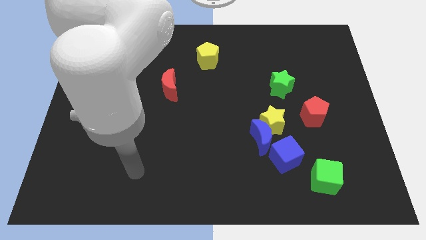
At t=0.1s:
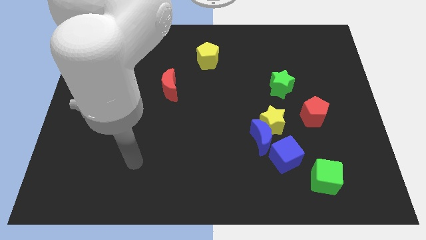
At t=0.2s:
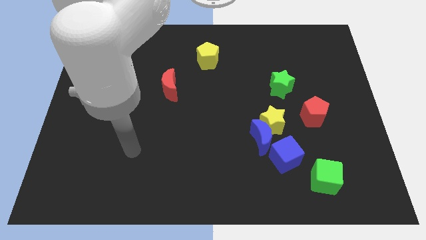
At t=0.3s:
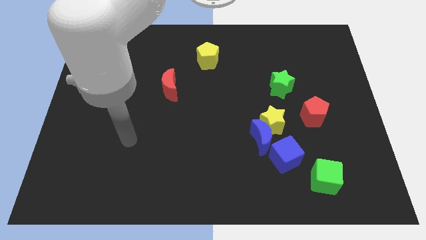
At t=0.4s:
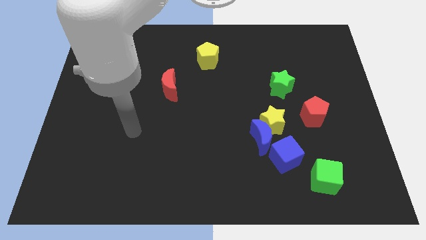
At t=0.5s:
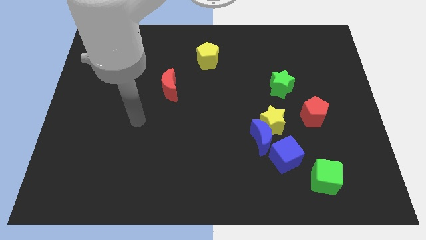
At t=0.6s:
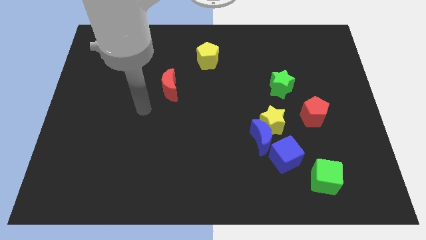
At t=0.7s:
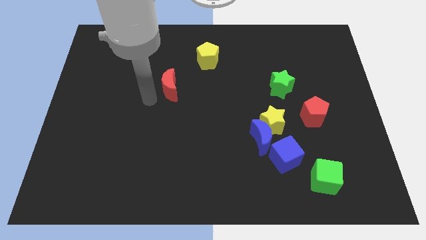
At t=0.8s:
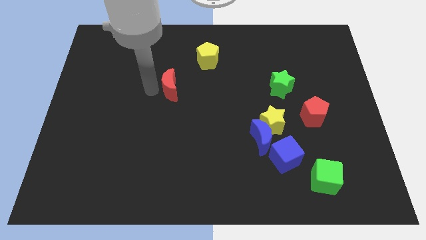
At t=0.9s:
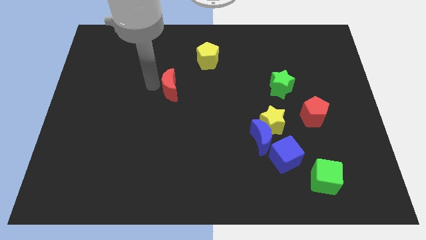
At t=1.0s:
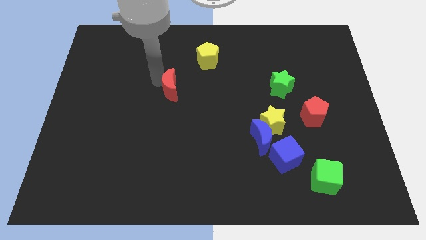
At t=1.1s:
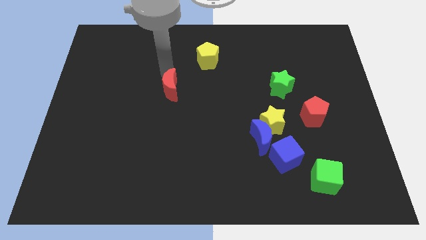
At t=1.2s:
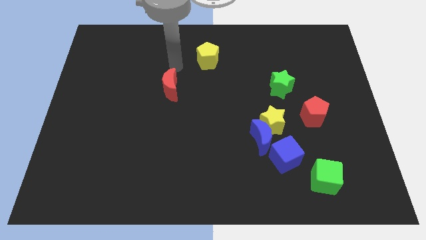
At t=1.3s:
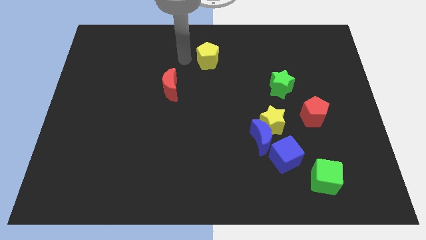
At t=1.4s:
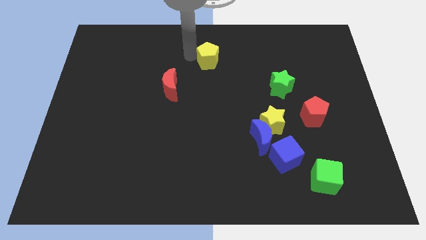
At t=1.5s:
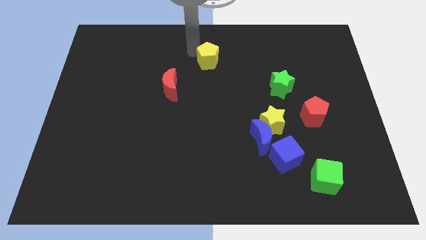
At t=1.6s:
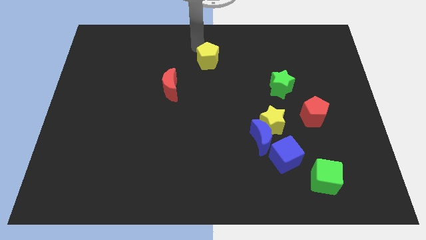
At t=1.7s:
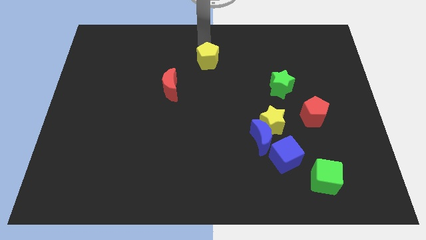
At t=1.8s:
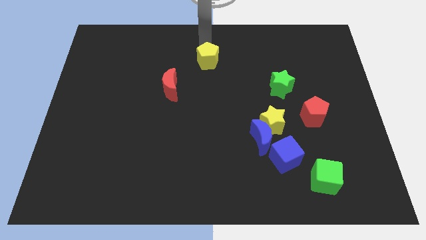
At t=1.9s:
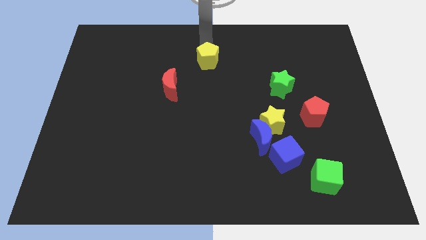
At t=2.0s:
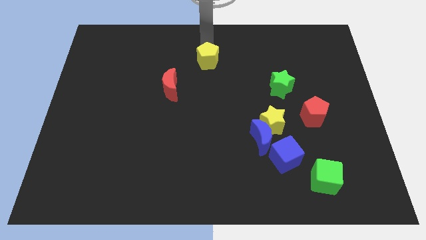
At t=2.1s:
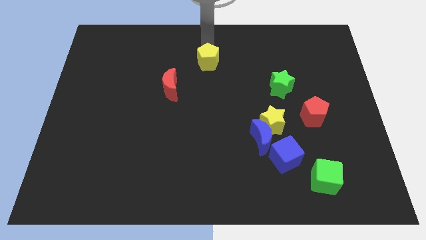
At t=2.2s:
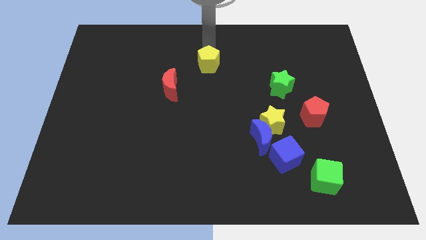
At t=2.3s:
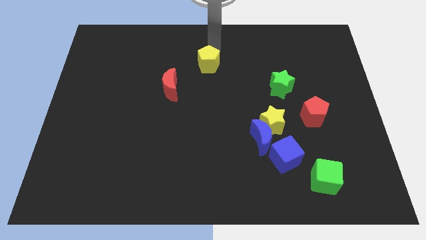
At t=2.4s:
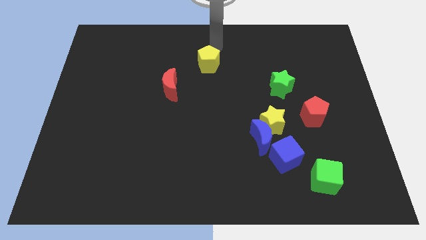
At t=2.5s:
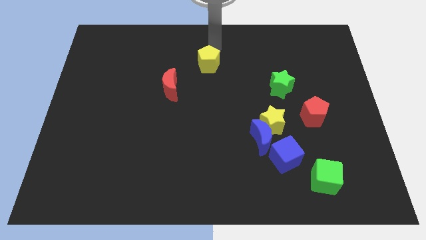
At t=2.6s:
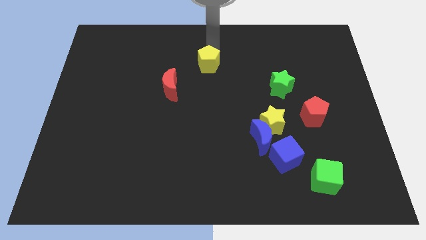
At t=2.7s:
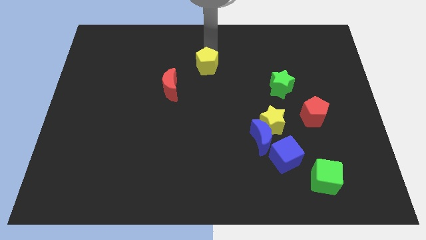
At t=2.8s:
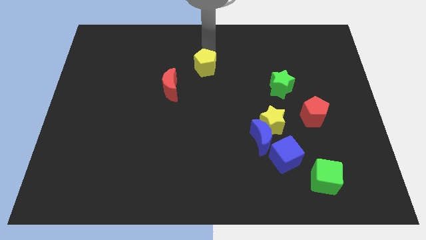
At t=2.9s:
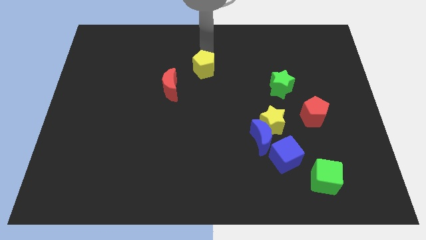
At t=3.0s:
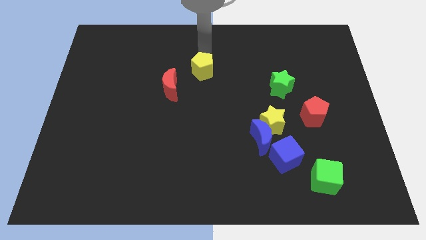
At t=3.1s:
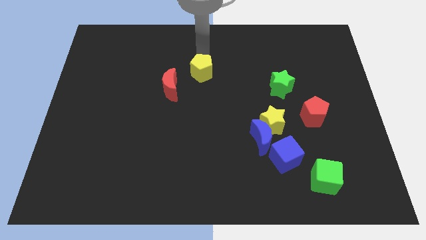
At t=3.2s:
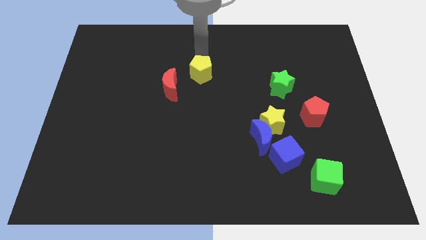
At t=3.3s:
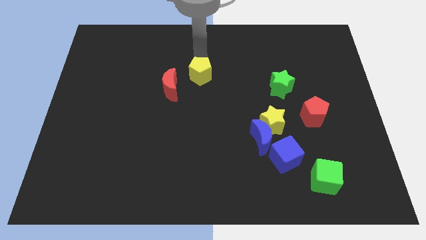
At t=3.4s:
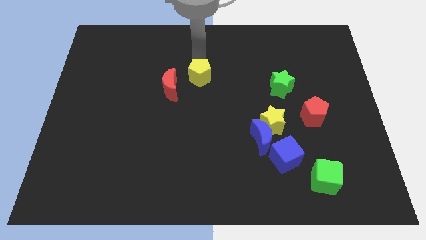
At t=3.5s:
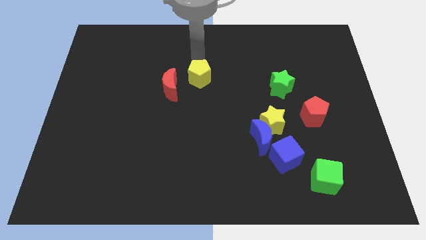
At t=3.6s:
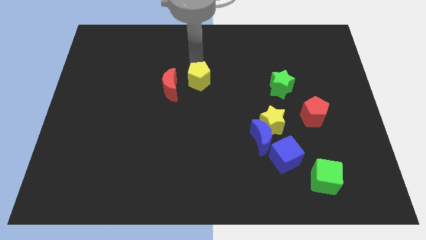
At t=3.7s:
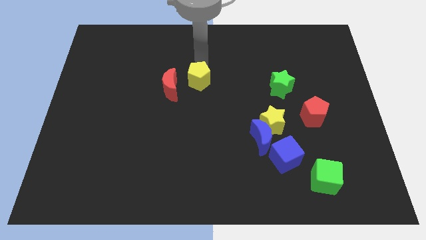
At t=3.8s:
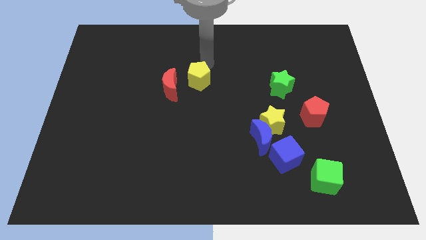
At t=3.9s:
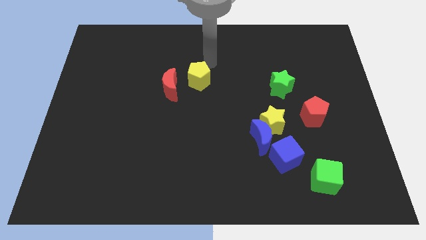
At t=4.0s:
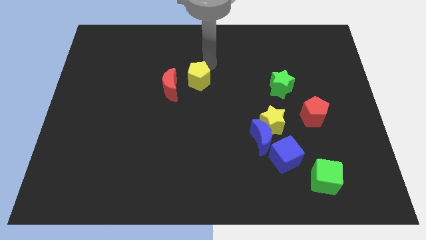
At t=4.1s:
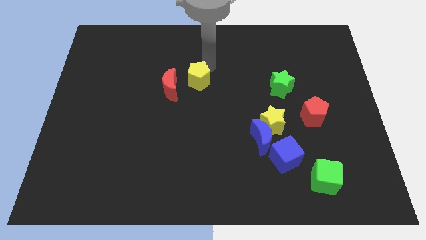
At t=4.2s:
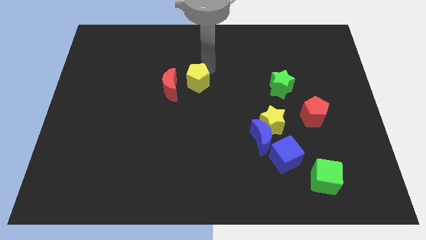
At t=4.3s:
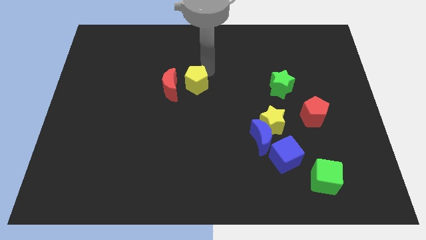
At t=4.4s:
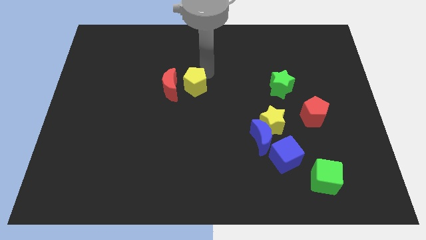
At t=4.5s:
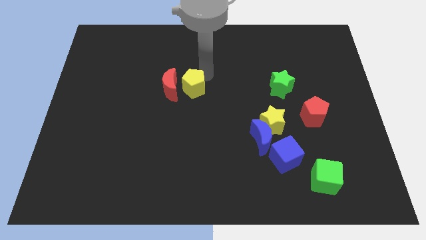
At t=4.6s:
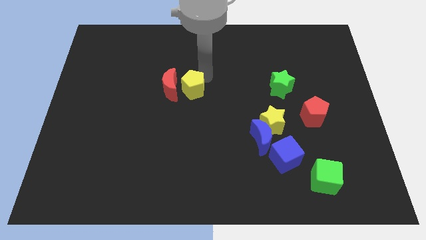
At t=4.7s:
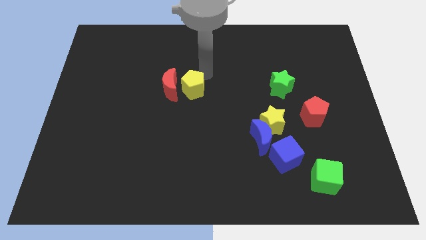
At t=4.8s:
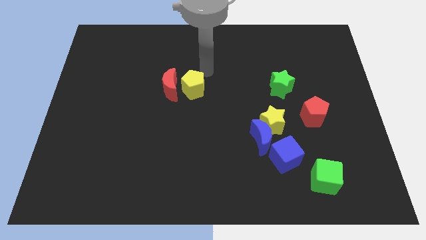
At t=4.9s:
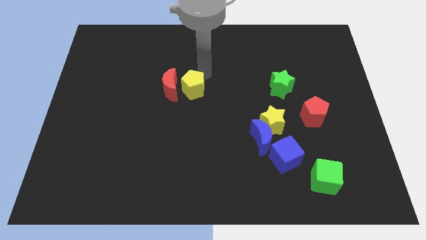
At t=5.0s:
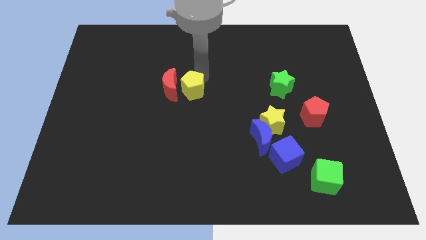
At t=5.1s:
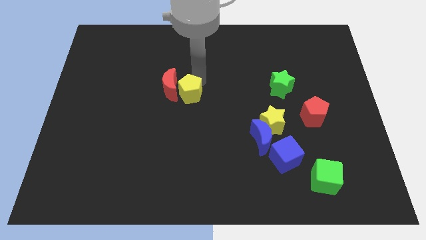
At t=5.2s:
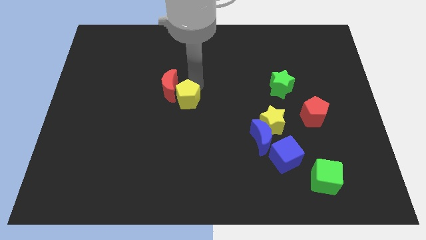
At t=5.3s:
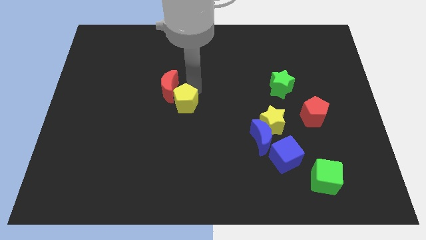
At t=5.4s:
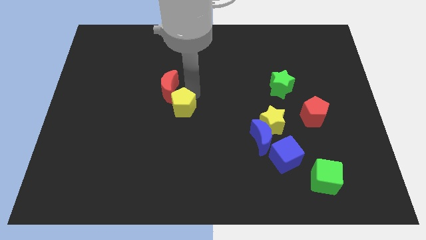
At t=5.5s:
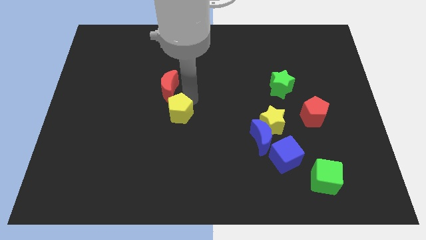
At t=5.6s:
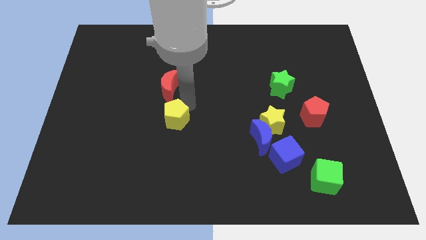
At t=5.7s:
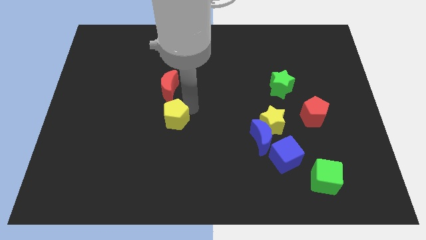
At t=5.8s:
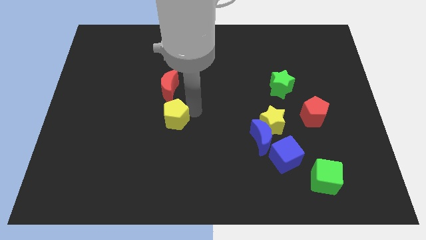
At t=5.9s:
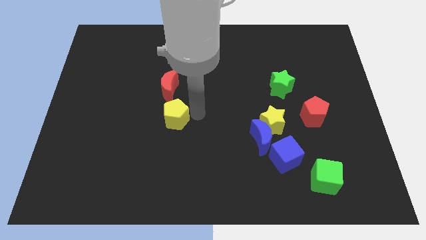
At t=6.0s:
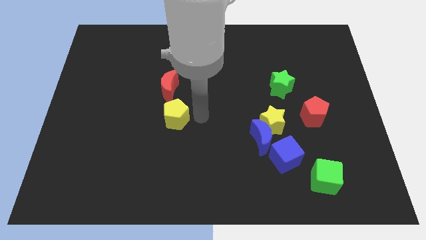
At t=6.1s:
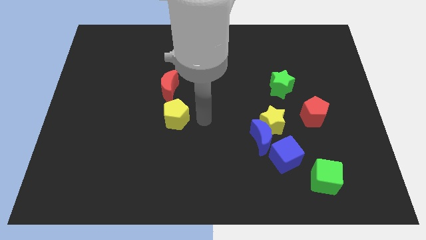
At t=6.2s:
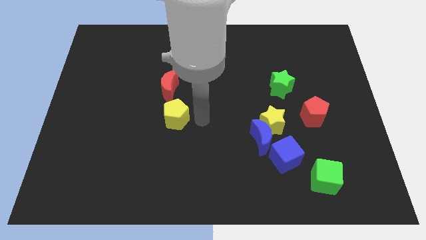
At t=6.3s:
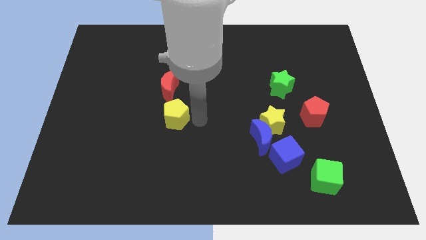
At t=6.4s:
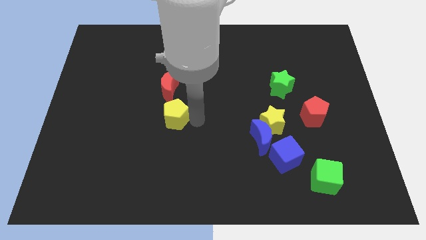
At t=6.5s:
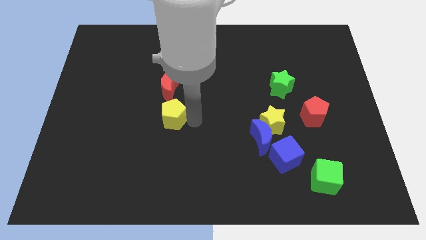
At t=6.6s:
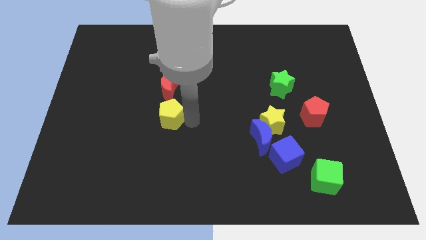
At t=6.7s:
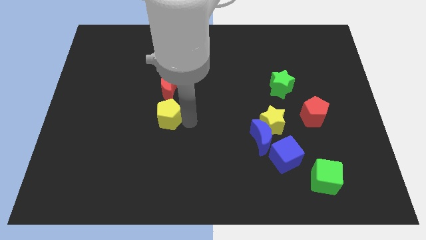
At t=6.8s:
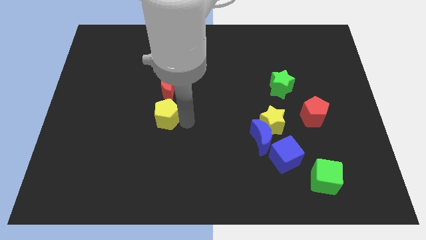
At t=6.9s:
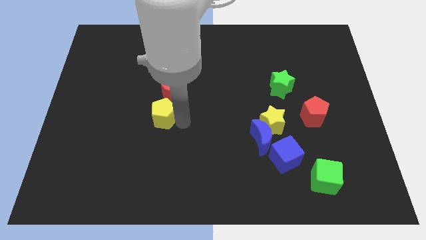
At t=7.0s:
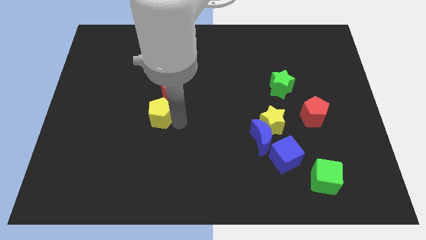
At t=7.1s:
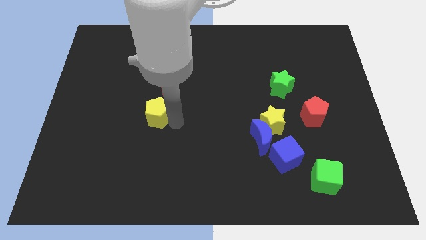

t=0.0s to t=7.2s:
slide the yellow pentagon down and to the left

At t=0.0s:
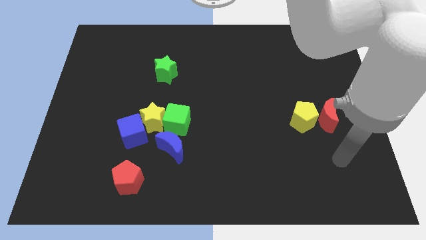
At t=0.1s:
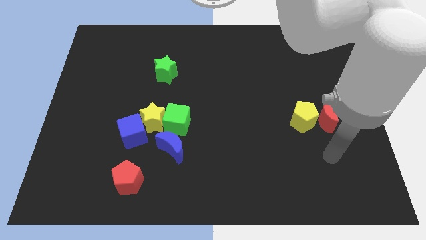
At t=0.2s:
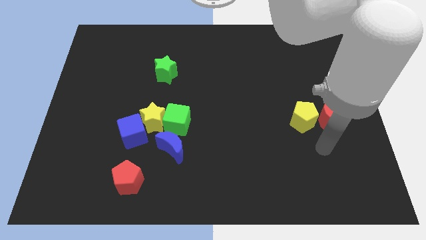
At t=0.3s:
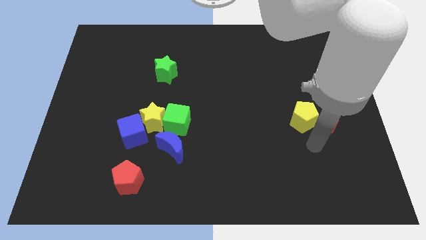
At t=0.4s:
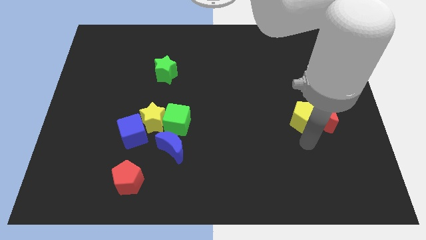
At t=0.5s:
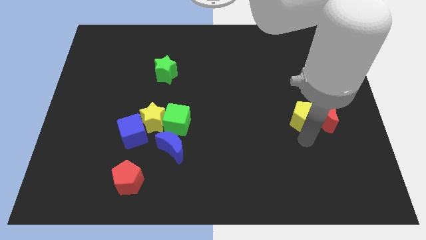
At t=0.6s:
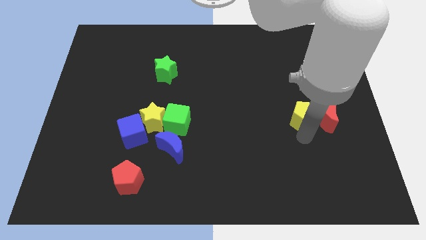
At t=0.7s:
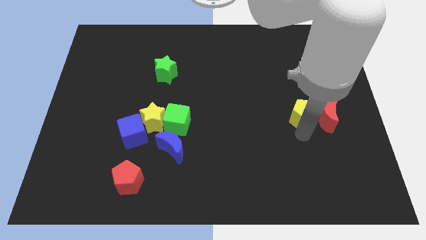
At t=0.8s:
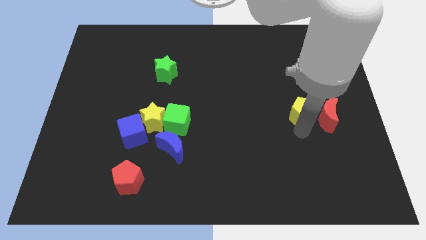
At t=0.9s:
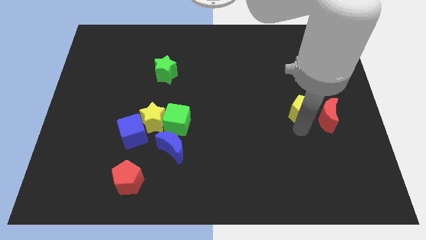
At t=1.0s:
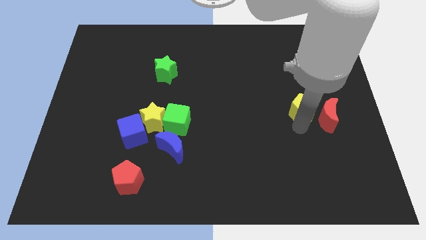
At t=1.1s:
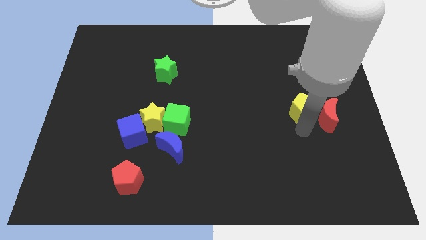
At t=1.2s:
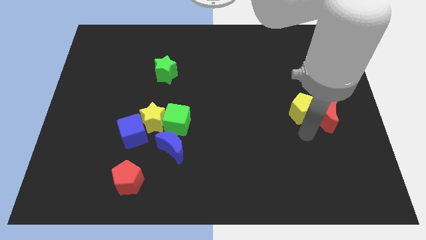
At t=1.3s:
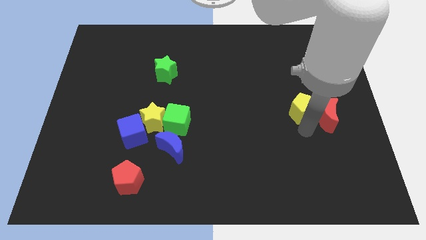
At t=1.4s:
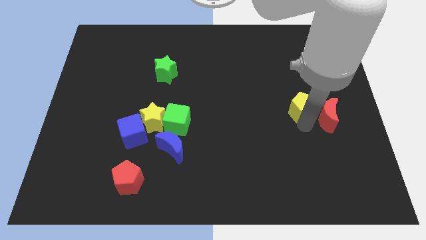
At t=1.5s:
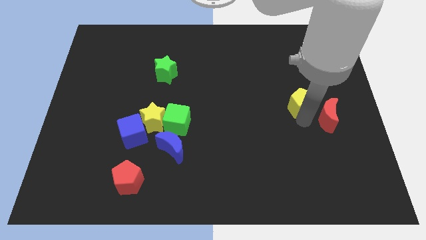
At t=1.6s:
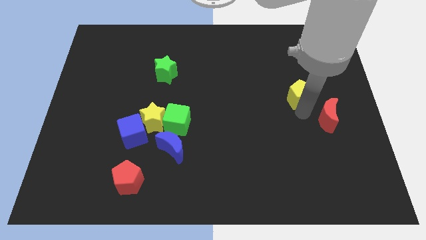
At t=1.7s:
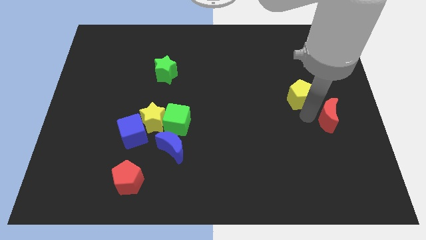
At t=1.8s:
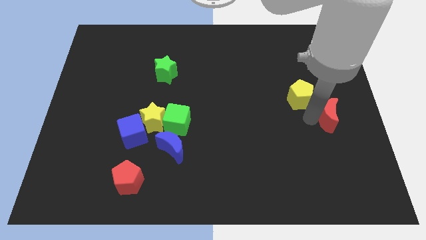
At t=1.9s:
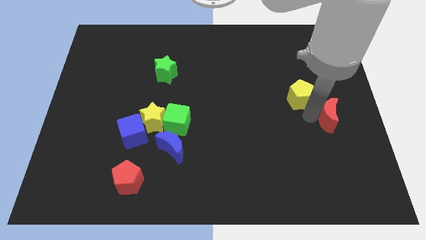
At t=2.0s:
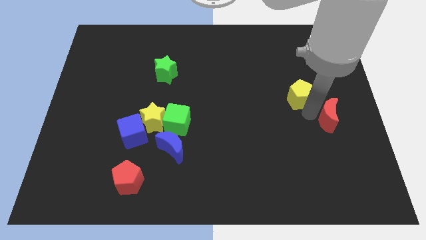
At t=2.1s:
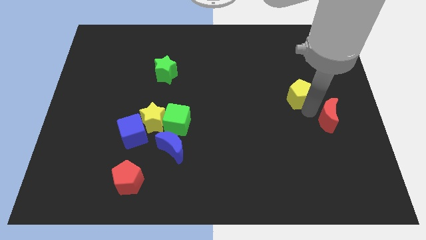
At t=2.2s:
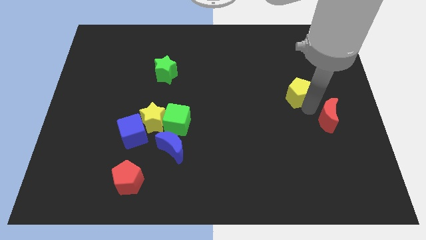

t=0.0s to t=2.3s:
move the yellow pentagon slightly up
